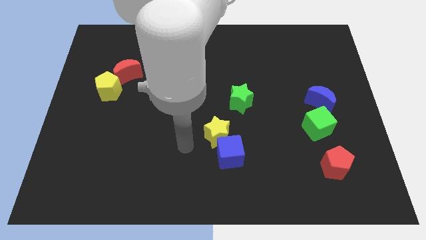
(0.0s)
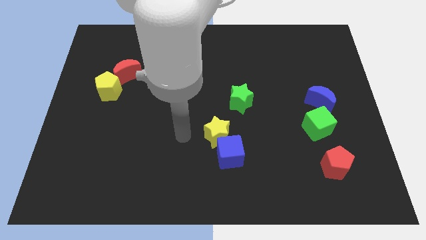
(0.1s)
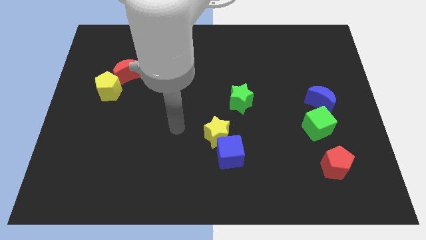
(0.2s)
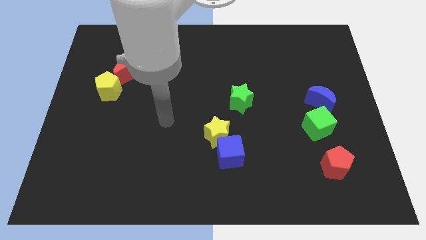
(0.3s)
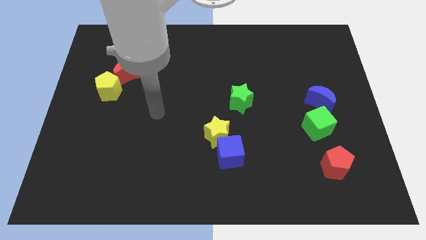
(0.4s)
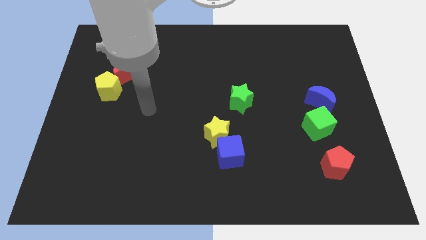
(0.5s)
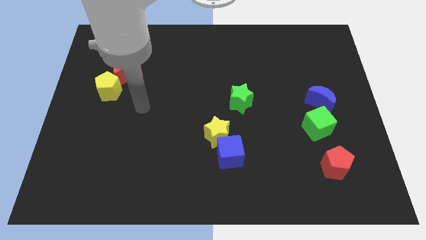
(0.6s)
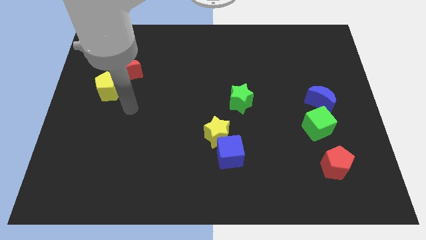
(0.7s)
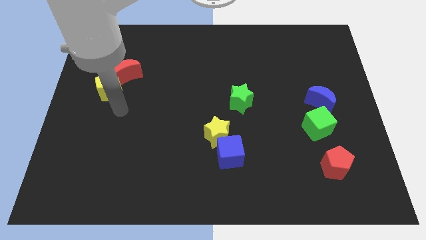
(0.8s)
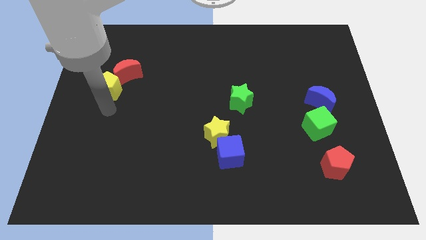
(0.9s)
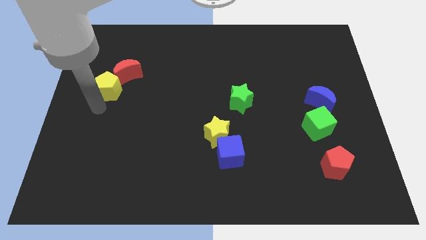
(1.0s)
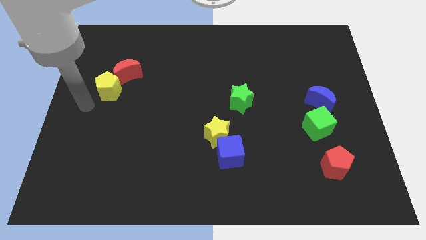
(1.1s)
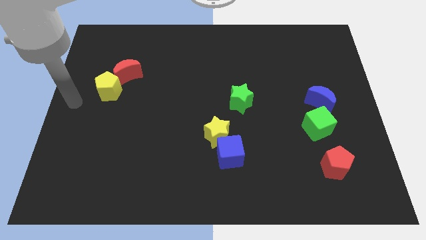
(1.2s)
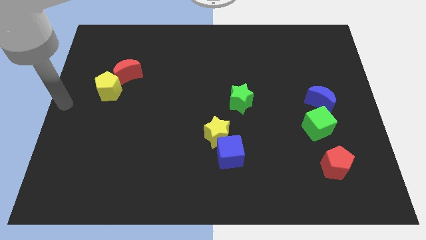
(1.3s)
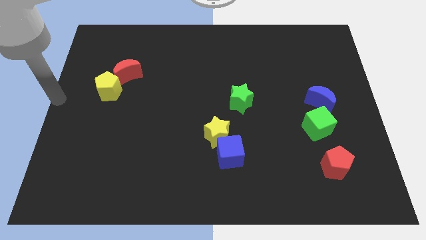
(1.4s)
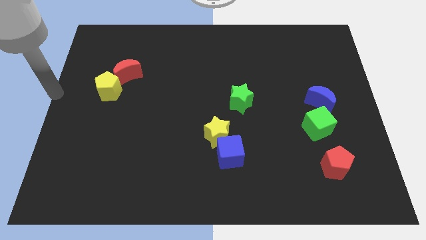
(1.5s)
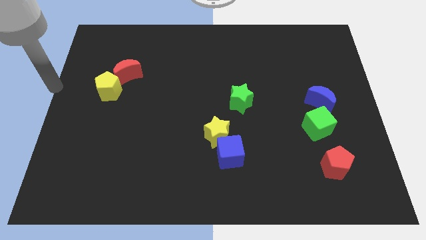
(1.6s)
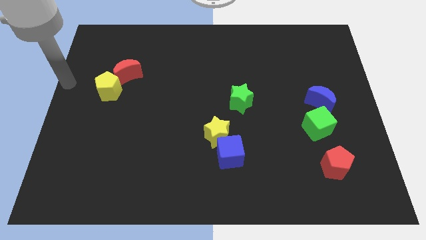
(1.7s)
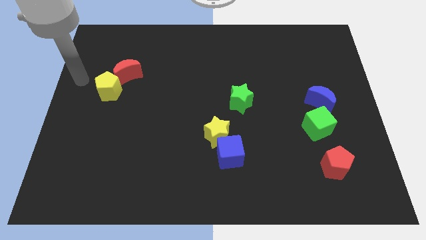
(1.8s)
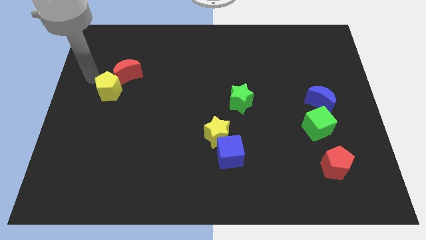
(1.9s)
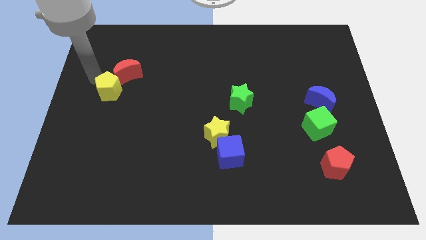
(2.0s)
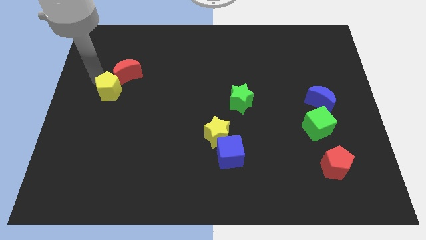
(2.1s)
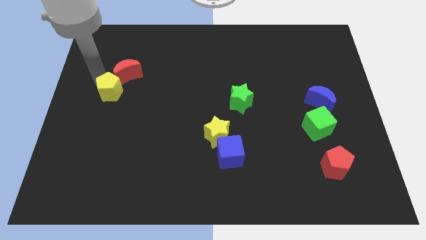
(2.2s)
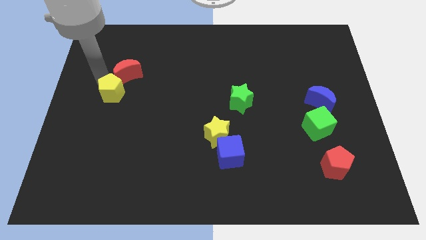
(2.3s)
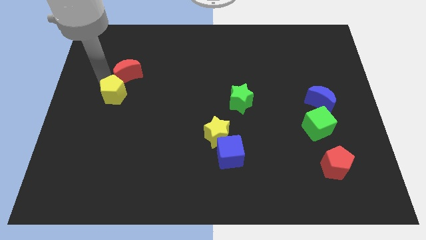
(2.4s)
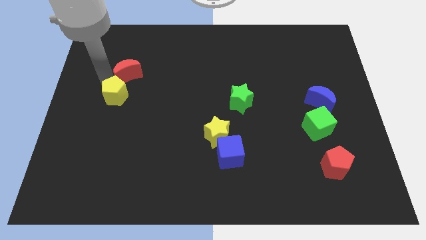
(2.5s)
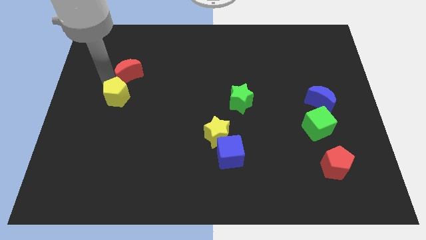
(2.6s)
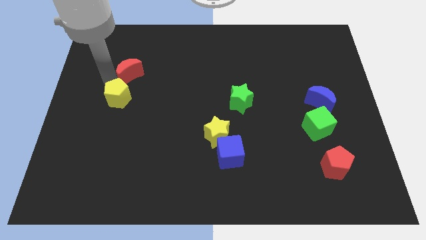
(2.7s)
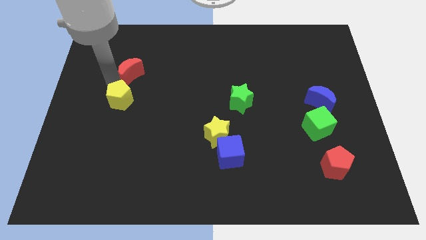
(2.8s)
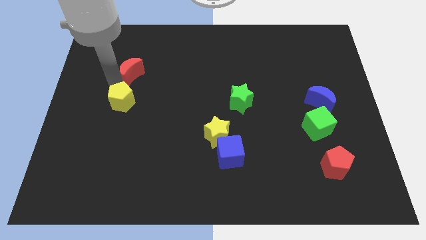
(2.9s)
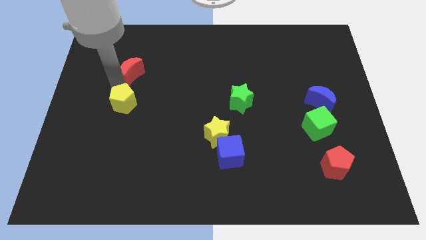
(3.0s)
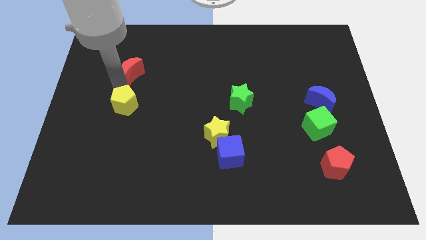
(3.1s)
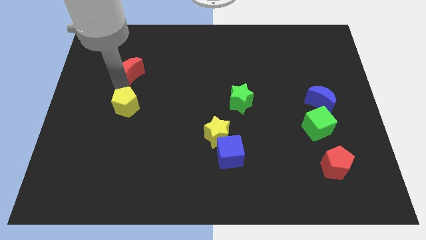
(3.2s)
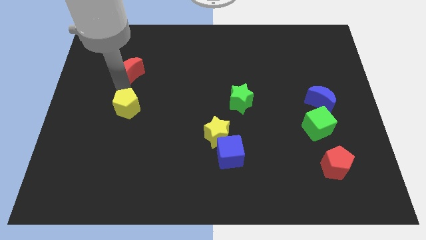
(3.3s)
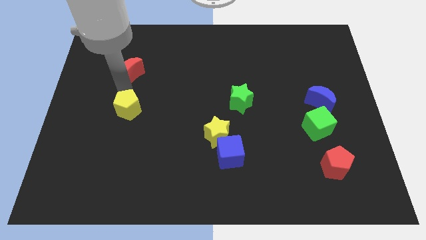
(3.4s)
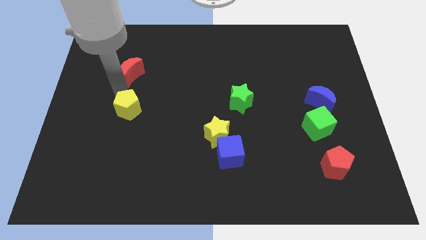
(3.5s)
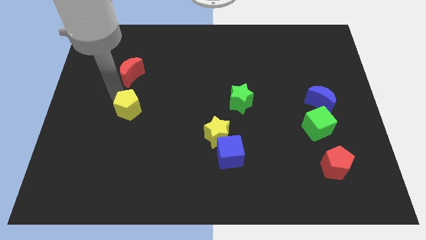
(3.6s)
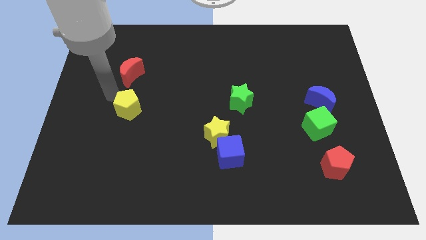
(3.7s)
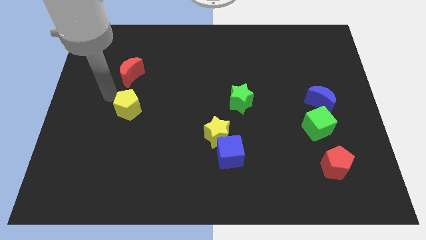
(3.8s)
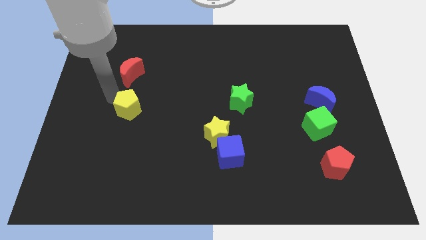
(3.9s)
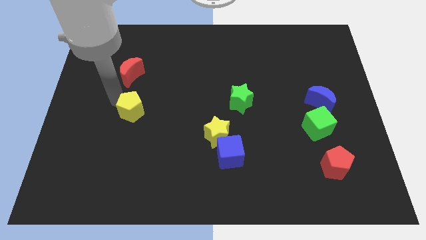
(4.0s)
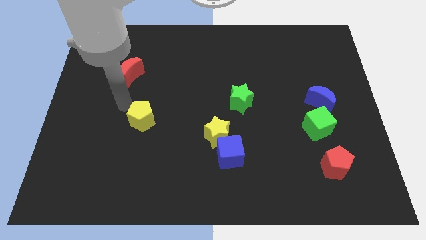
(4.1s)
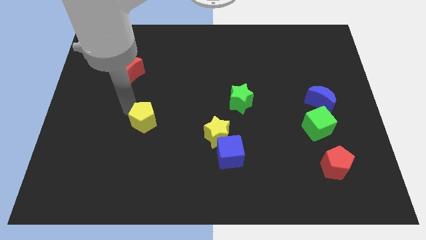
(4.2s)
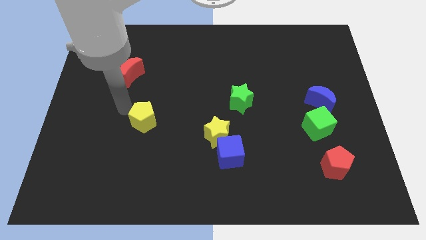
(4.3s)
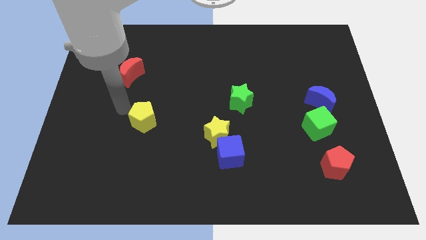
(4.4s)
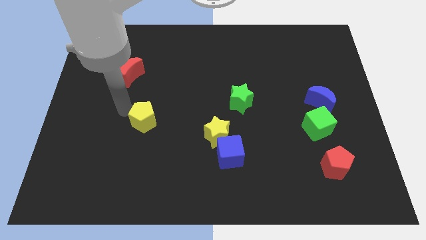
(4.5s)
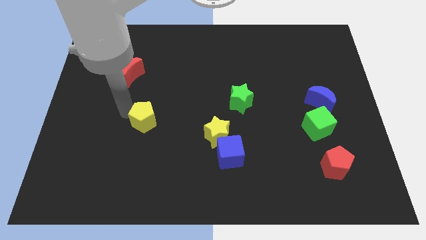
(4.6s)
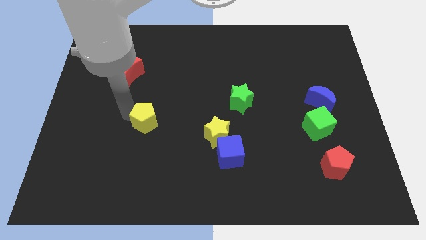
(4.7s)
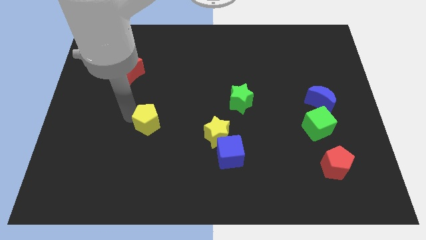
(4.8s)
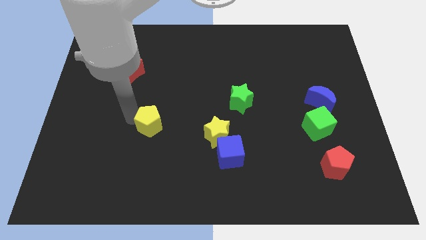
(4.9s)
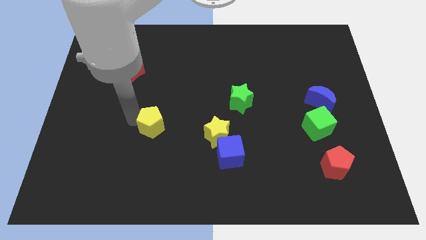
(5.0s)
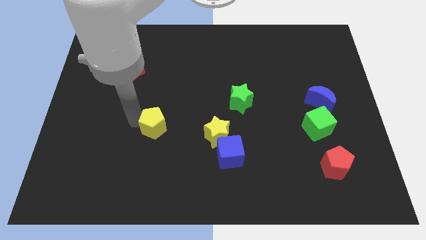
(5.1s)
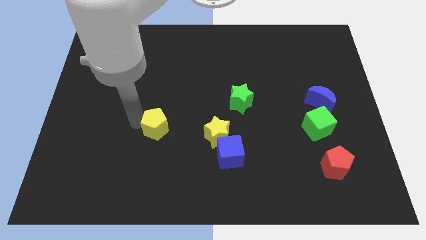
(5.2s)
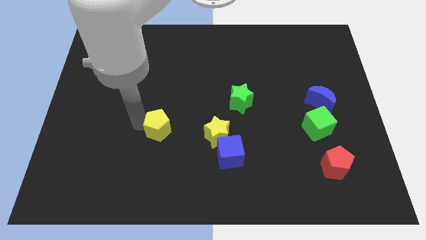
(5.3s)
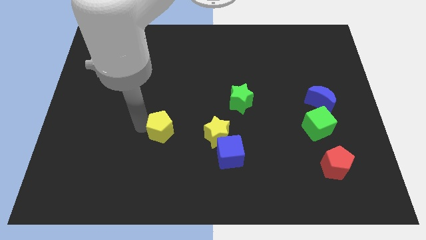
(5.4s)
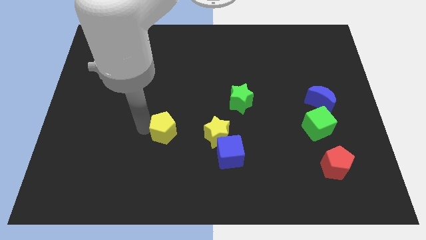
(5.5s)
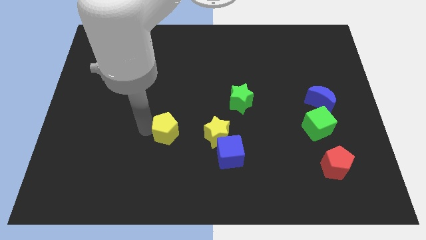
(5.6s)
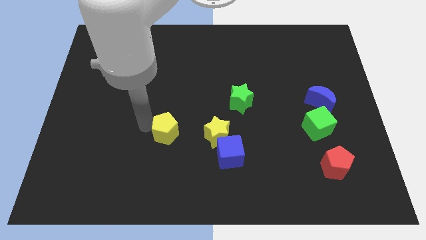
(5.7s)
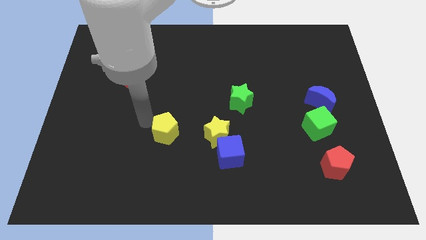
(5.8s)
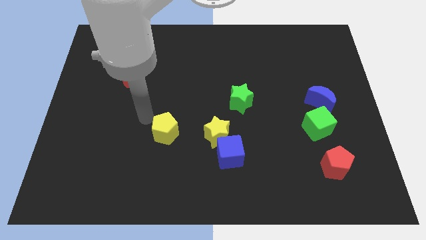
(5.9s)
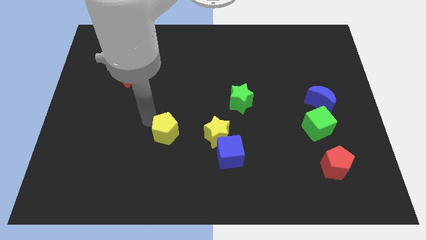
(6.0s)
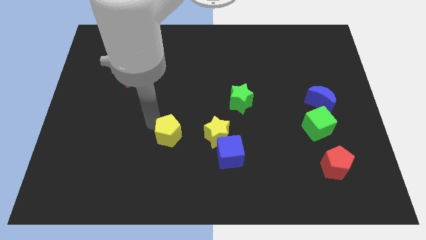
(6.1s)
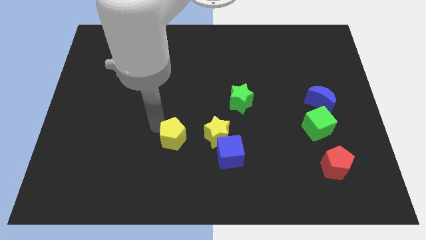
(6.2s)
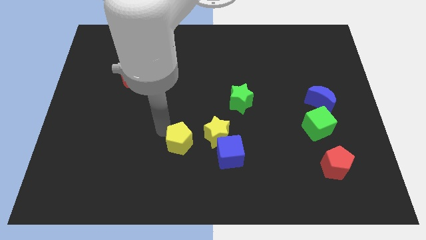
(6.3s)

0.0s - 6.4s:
put the yellow pentagon to the bottom left side of the yellow star
